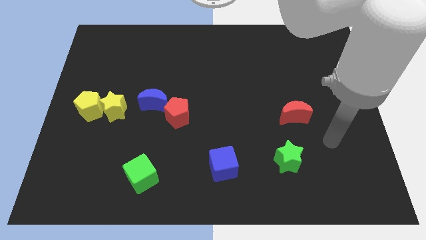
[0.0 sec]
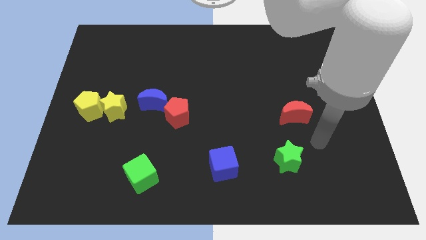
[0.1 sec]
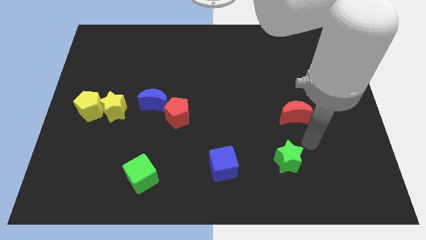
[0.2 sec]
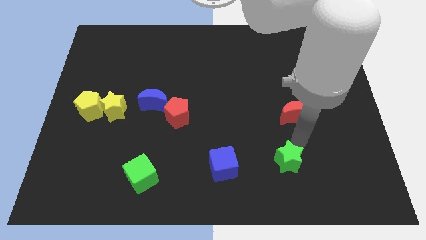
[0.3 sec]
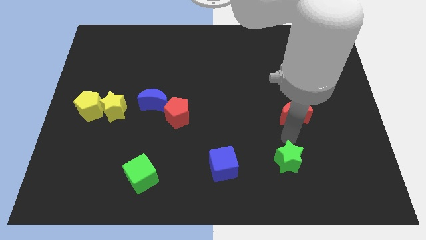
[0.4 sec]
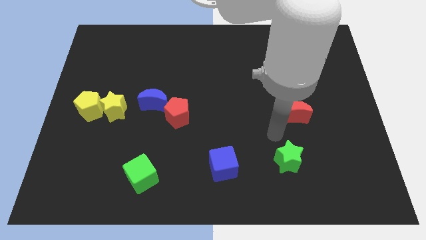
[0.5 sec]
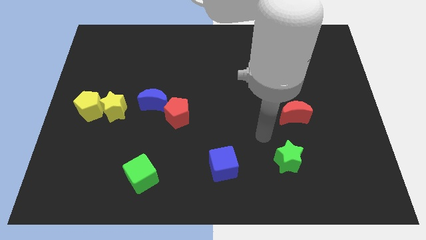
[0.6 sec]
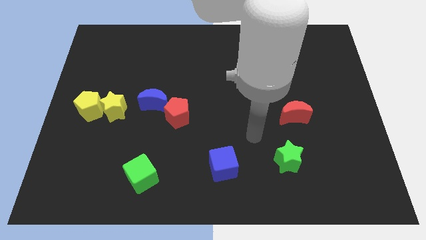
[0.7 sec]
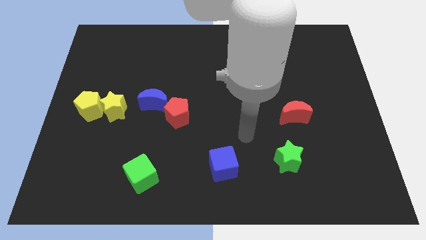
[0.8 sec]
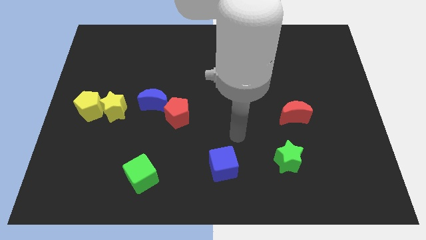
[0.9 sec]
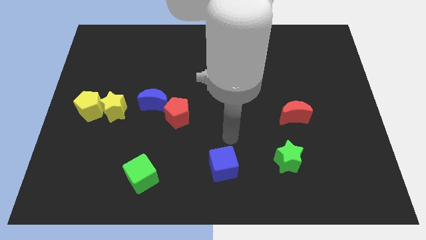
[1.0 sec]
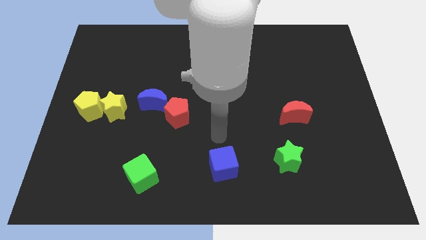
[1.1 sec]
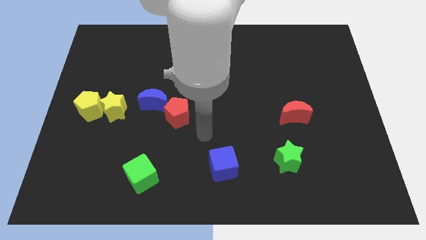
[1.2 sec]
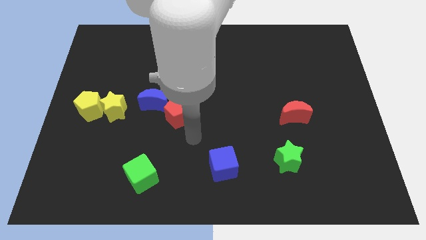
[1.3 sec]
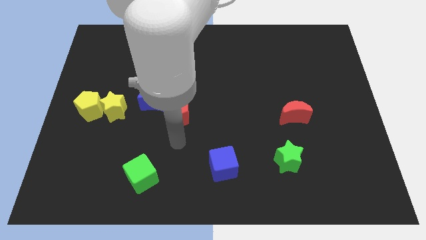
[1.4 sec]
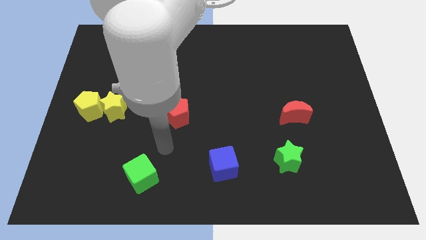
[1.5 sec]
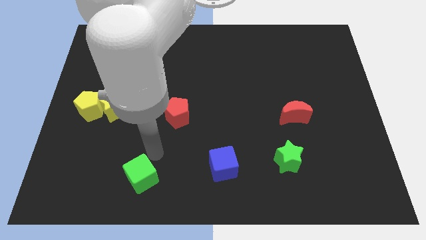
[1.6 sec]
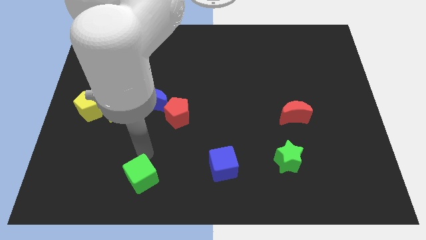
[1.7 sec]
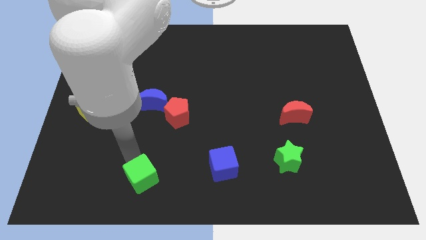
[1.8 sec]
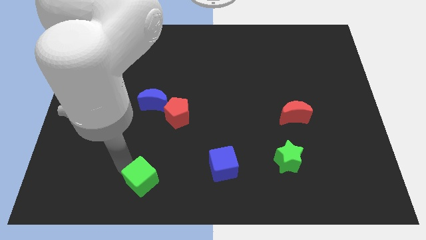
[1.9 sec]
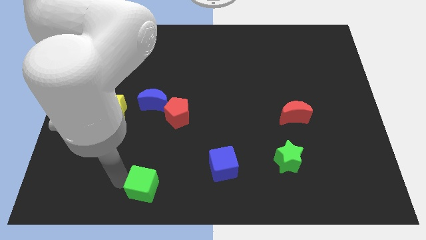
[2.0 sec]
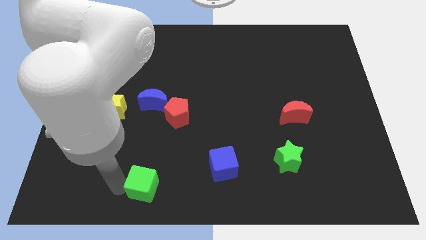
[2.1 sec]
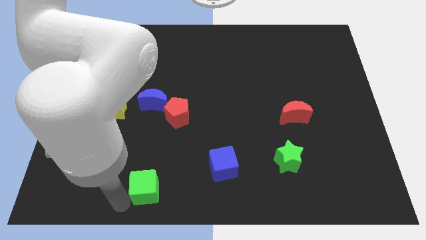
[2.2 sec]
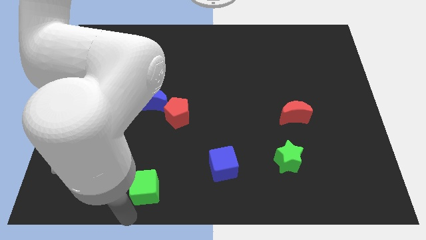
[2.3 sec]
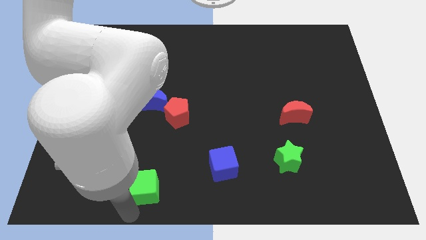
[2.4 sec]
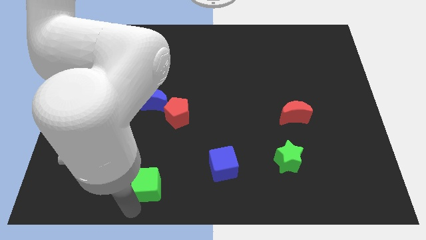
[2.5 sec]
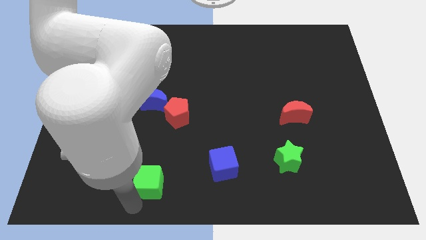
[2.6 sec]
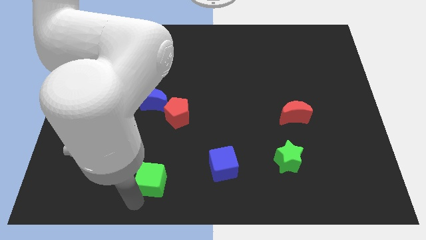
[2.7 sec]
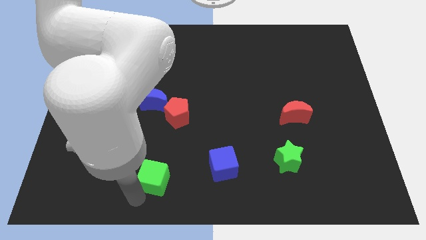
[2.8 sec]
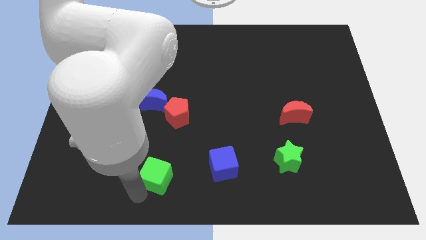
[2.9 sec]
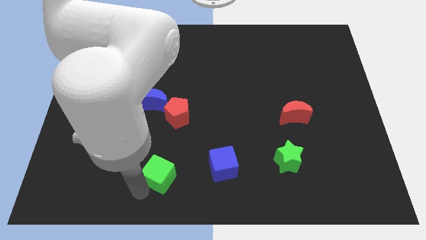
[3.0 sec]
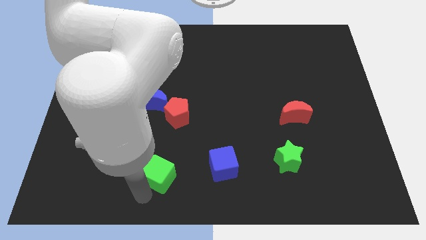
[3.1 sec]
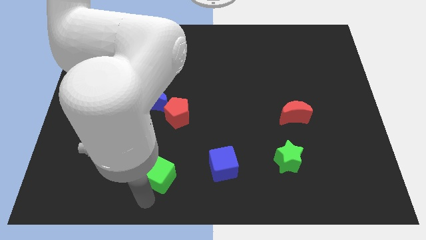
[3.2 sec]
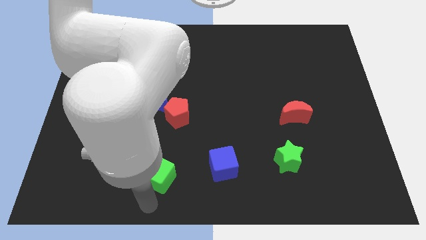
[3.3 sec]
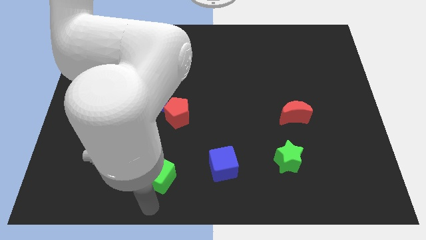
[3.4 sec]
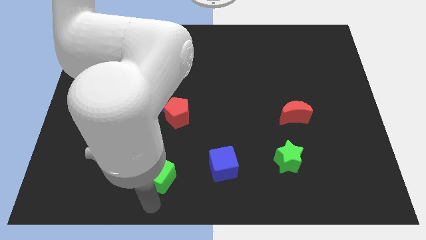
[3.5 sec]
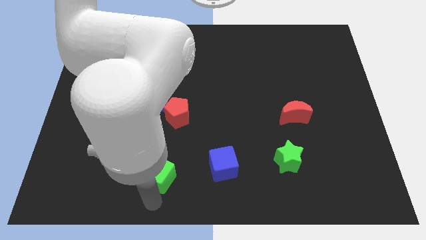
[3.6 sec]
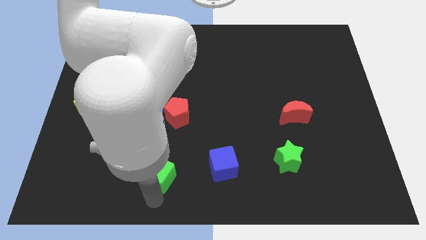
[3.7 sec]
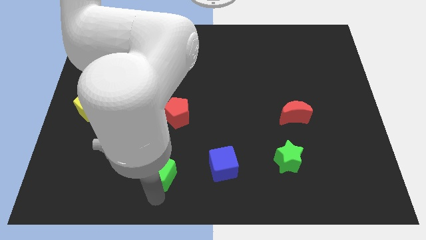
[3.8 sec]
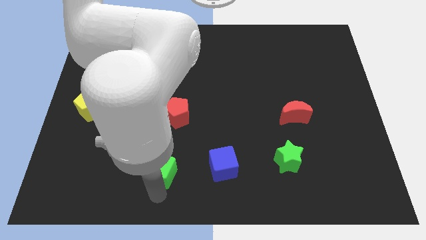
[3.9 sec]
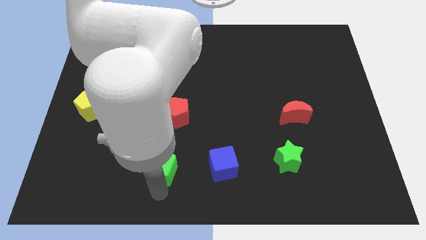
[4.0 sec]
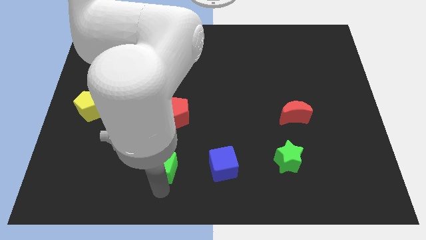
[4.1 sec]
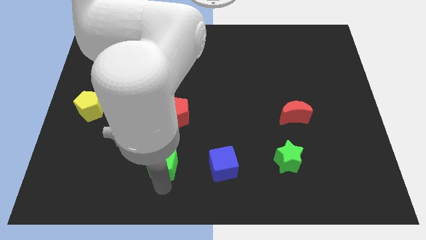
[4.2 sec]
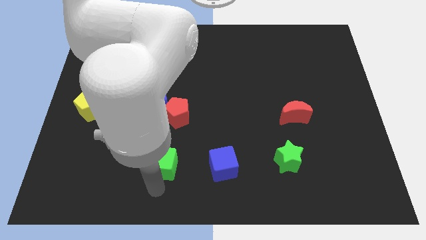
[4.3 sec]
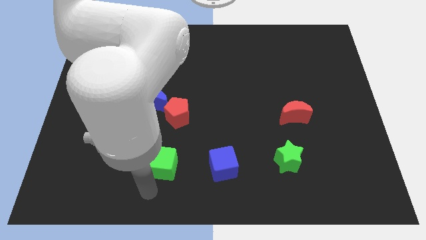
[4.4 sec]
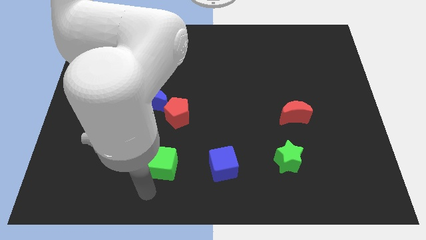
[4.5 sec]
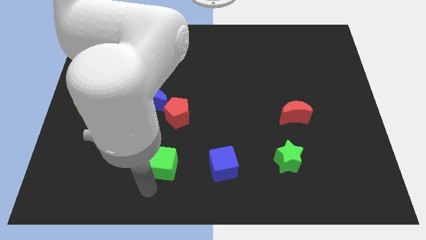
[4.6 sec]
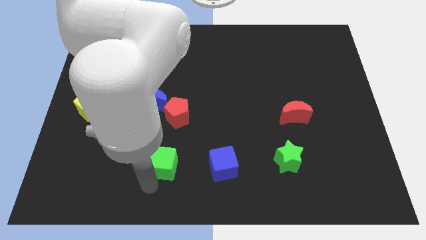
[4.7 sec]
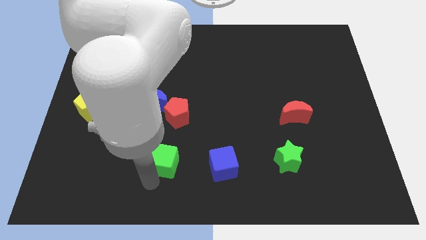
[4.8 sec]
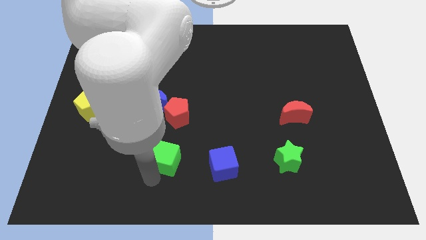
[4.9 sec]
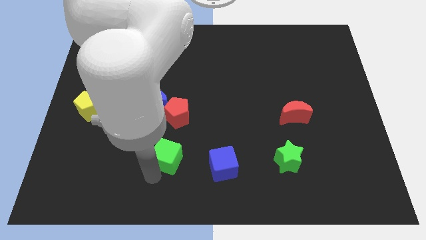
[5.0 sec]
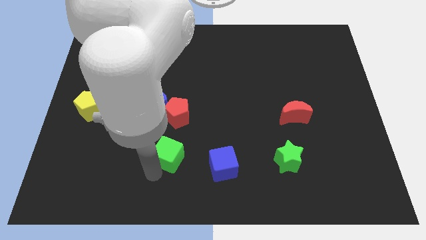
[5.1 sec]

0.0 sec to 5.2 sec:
slightly move the green cube upwards and to the right

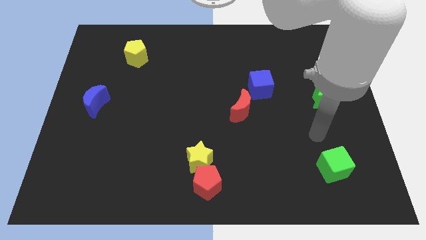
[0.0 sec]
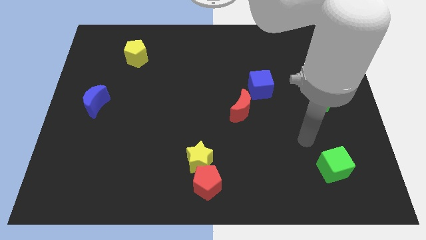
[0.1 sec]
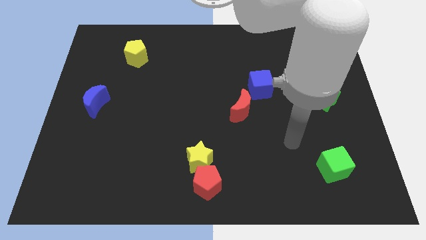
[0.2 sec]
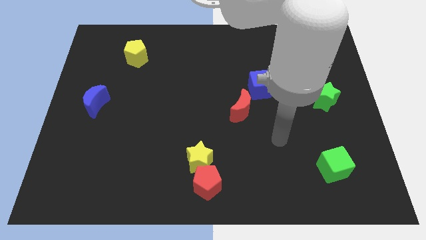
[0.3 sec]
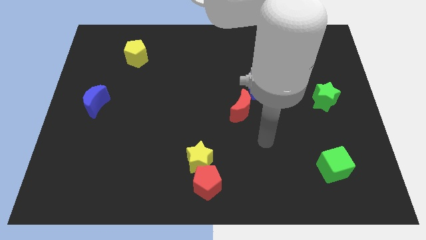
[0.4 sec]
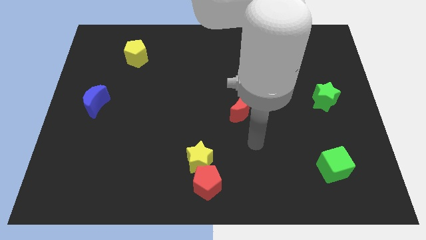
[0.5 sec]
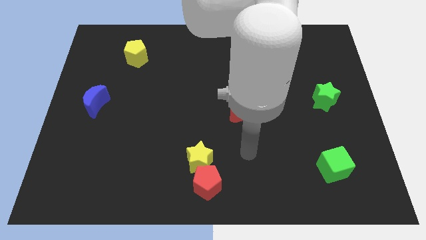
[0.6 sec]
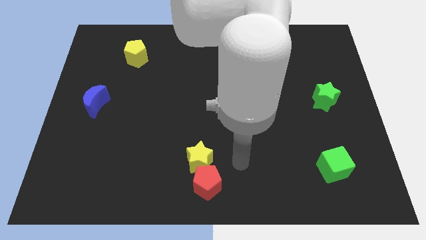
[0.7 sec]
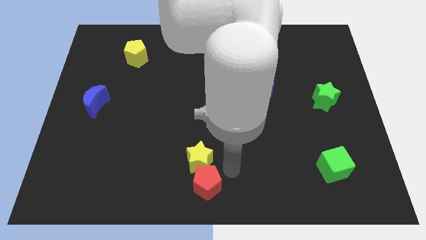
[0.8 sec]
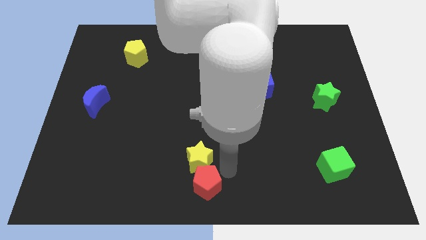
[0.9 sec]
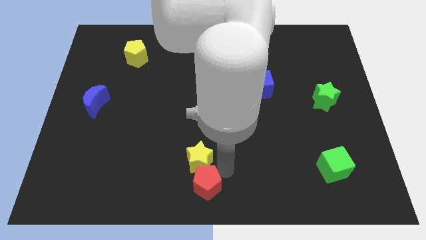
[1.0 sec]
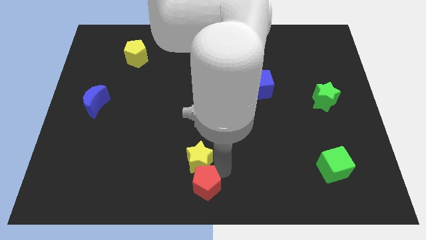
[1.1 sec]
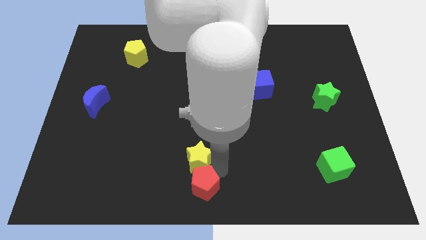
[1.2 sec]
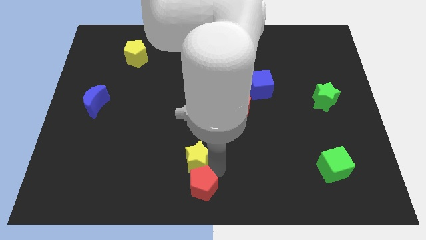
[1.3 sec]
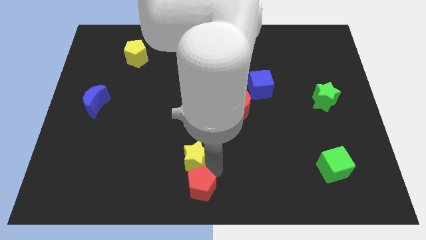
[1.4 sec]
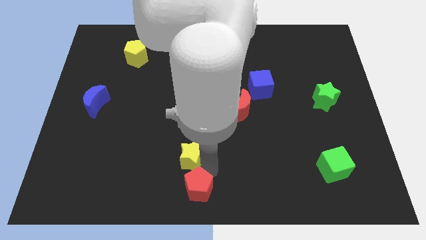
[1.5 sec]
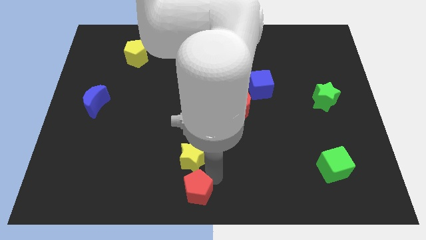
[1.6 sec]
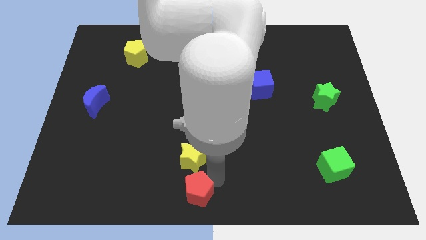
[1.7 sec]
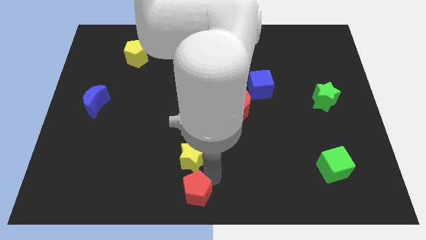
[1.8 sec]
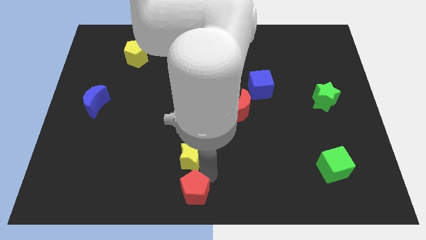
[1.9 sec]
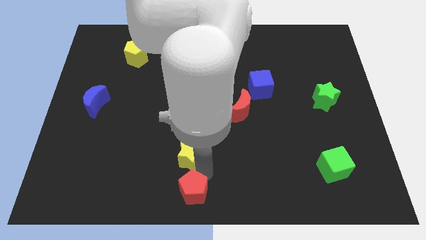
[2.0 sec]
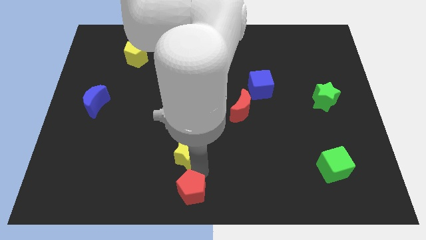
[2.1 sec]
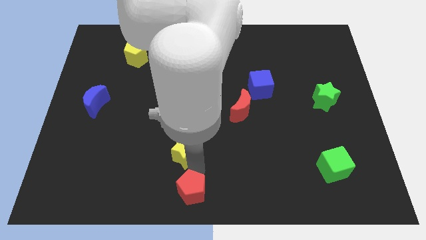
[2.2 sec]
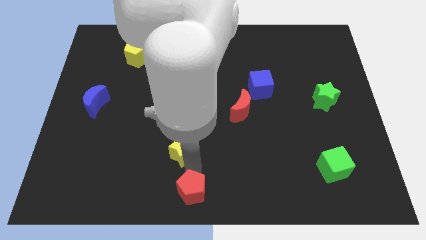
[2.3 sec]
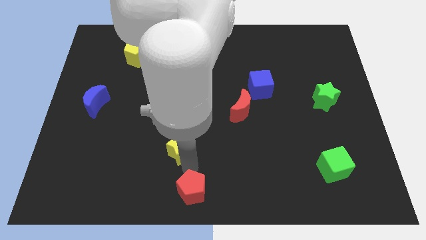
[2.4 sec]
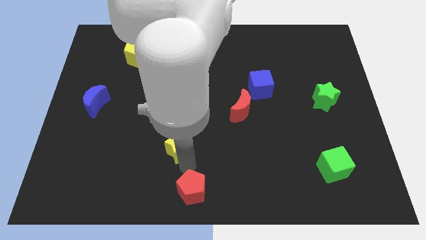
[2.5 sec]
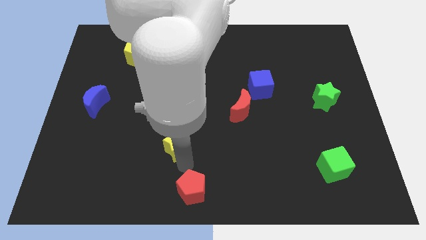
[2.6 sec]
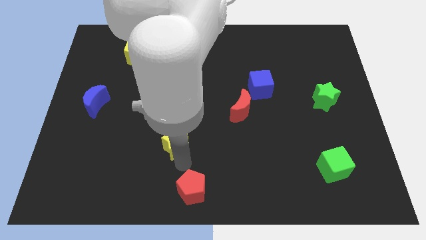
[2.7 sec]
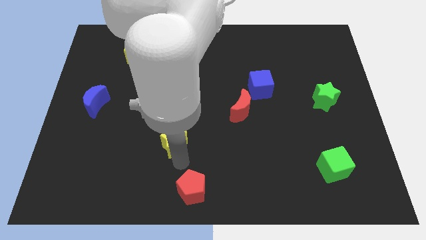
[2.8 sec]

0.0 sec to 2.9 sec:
slightly slide the yellow star up and to the left

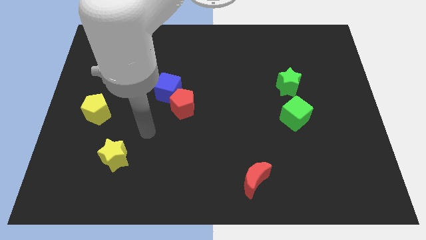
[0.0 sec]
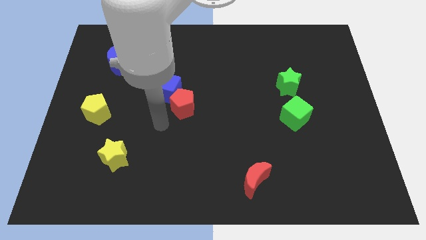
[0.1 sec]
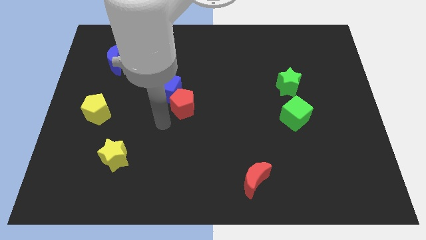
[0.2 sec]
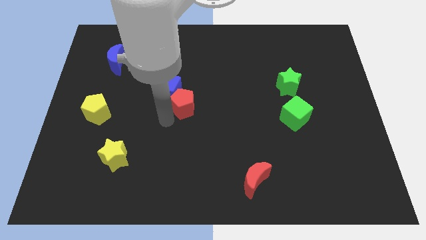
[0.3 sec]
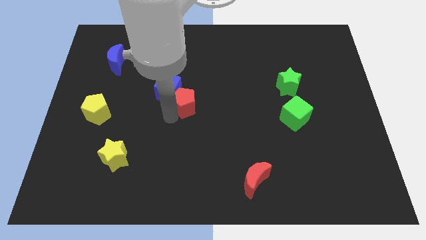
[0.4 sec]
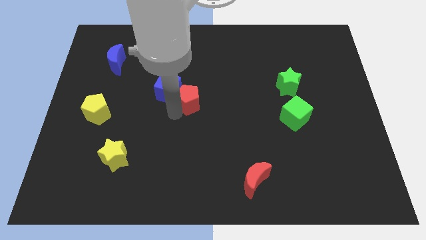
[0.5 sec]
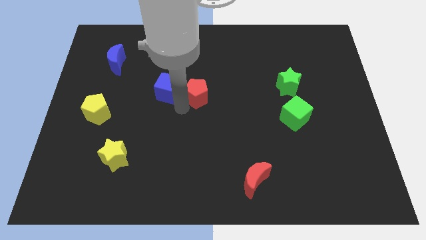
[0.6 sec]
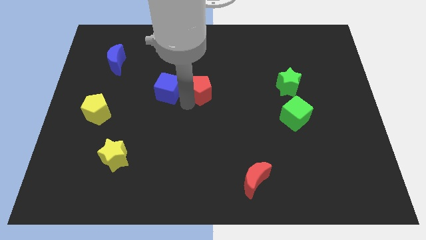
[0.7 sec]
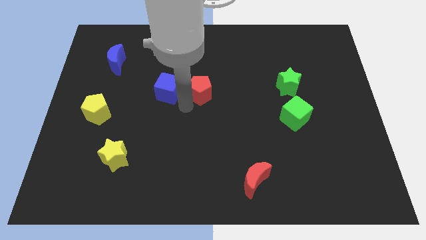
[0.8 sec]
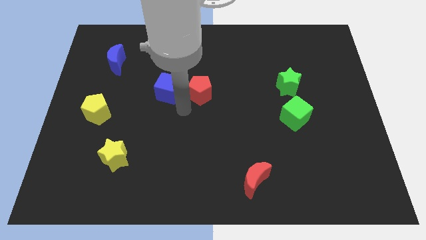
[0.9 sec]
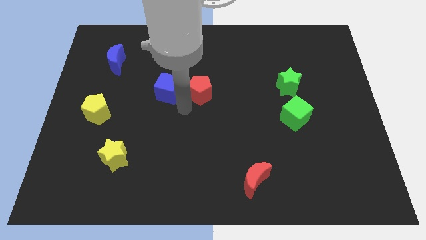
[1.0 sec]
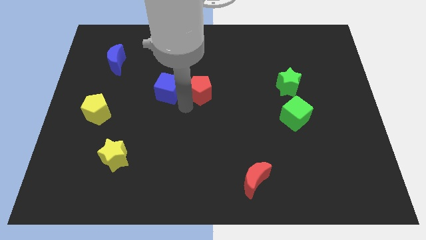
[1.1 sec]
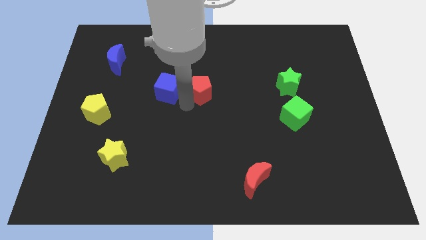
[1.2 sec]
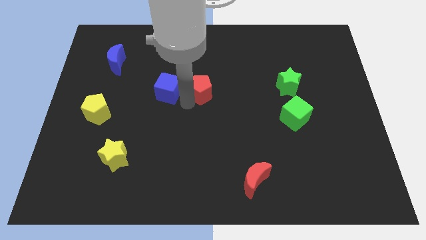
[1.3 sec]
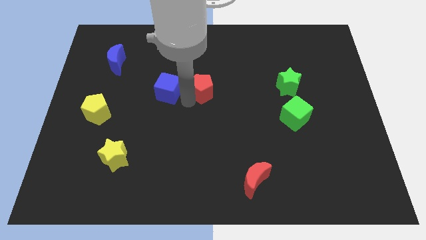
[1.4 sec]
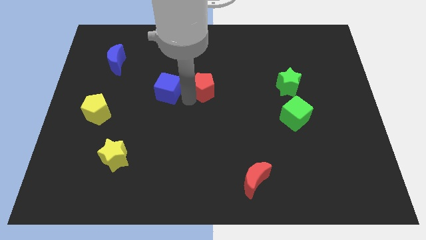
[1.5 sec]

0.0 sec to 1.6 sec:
move the red pentagon a little bit diagonally up and right
